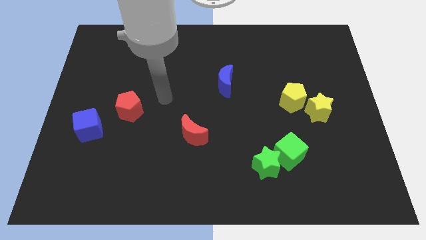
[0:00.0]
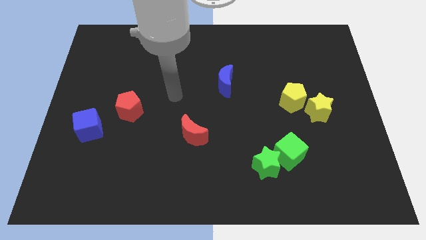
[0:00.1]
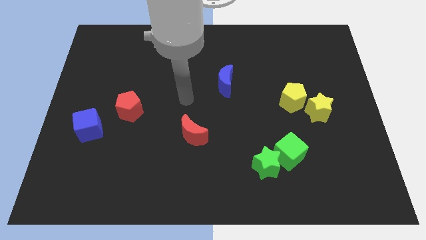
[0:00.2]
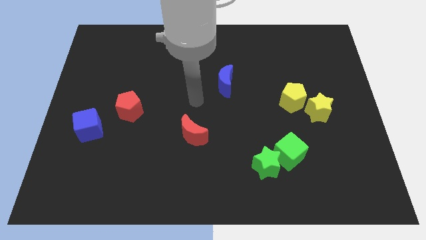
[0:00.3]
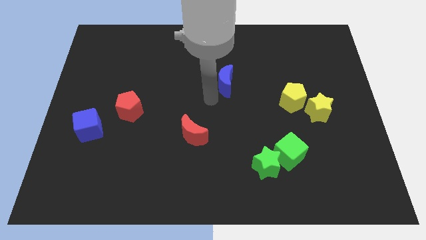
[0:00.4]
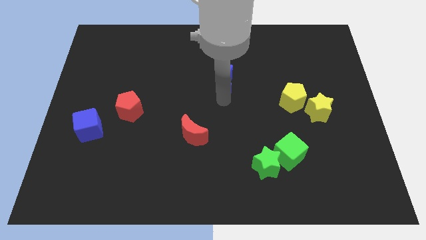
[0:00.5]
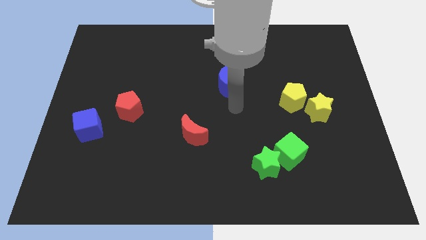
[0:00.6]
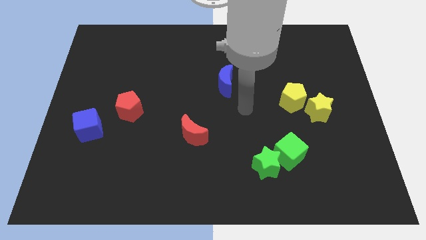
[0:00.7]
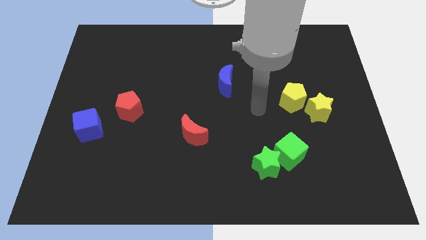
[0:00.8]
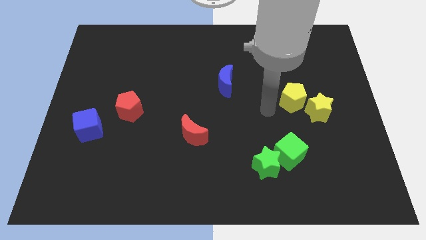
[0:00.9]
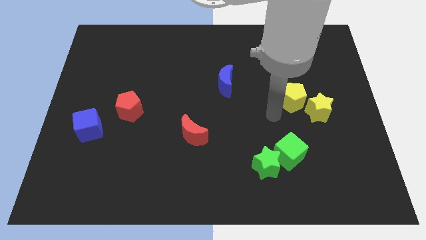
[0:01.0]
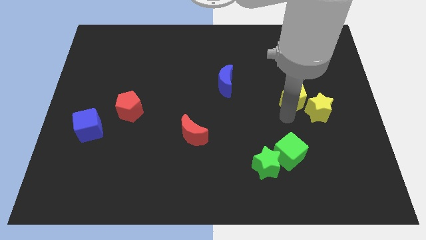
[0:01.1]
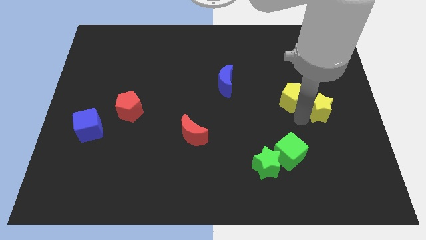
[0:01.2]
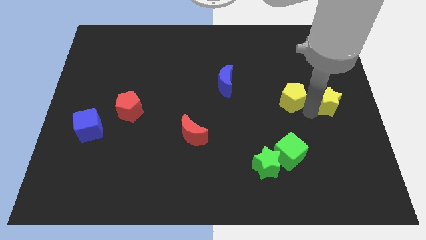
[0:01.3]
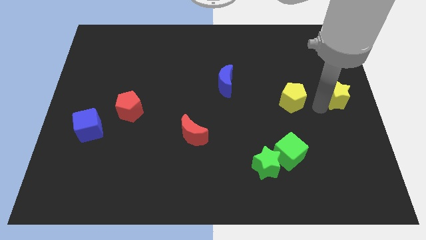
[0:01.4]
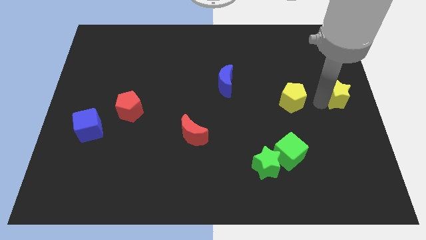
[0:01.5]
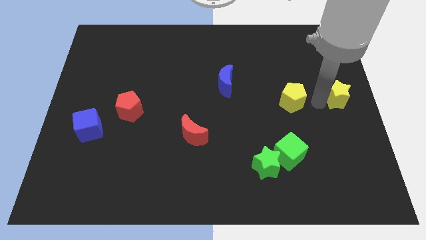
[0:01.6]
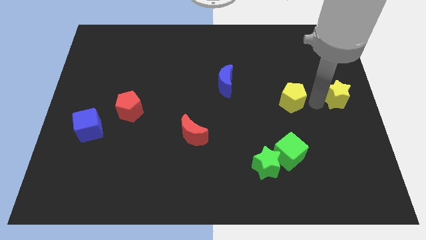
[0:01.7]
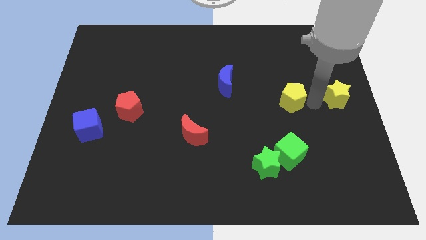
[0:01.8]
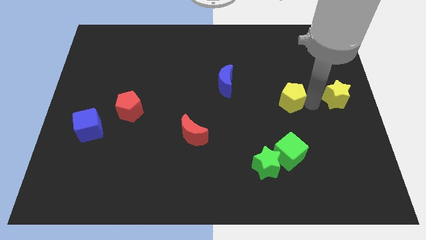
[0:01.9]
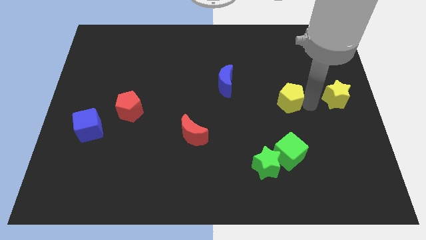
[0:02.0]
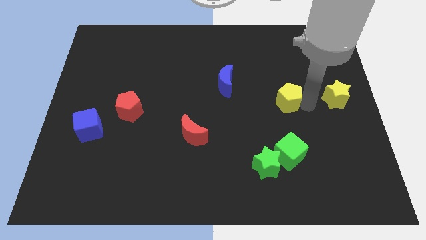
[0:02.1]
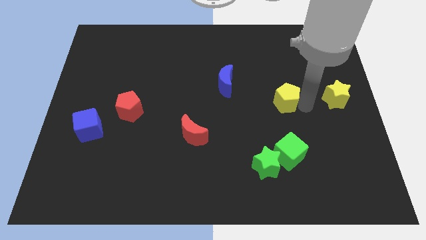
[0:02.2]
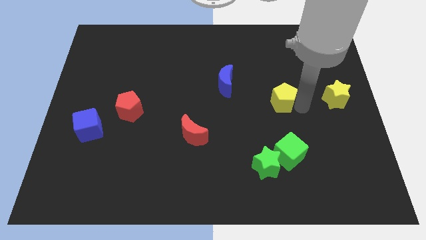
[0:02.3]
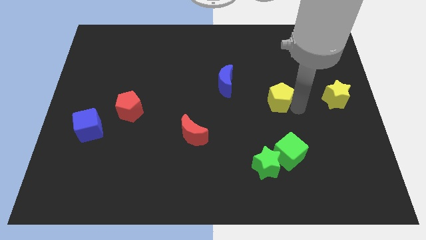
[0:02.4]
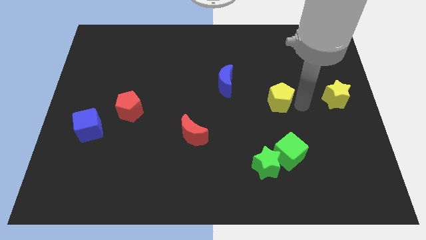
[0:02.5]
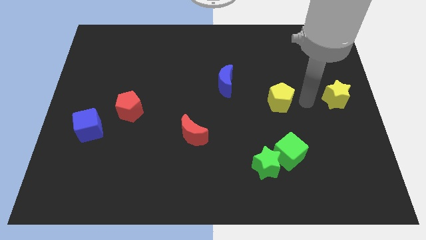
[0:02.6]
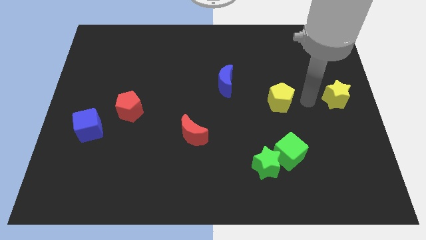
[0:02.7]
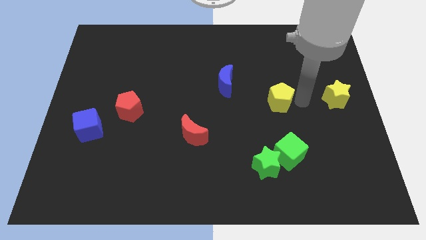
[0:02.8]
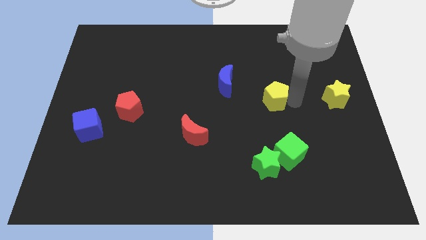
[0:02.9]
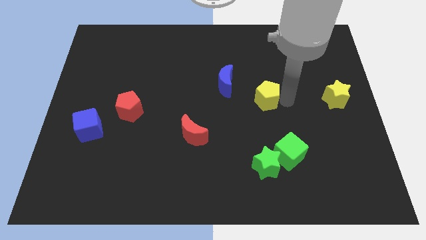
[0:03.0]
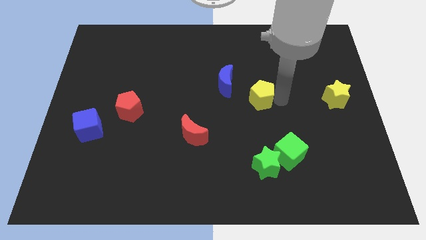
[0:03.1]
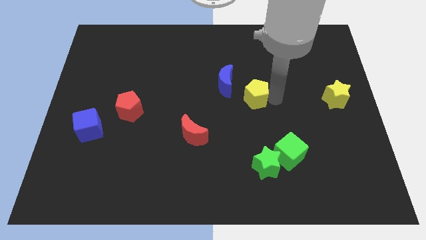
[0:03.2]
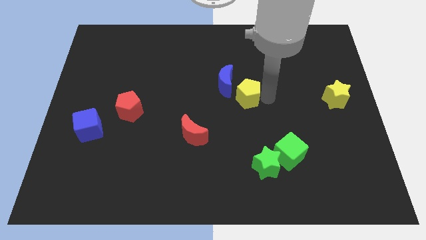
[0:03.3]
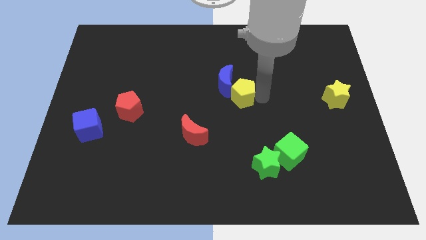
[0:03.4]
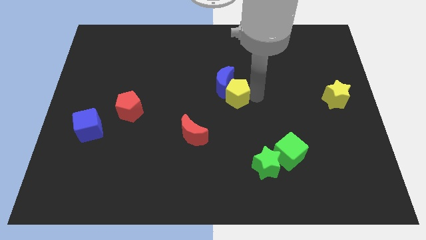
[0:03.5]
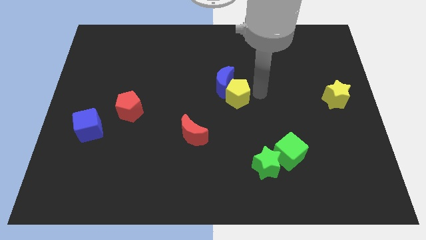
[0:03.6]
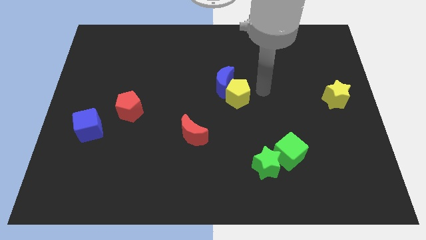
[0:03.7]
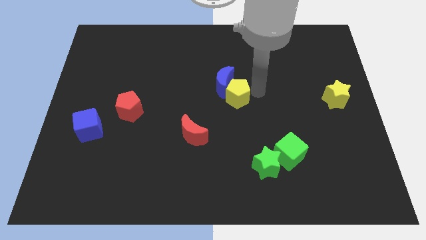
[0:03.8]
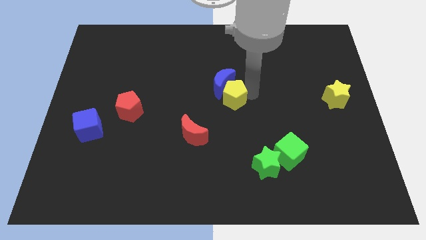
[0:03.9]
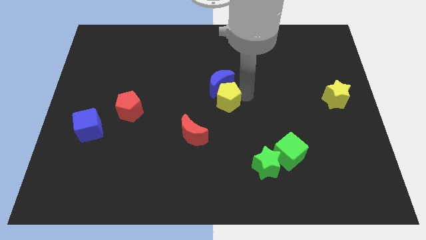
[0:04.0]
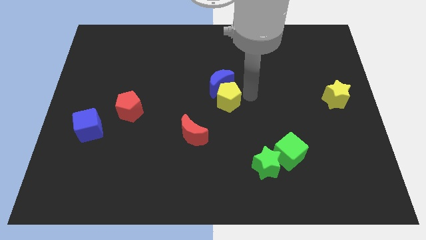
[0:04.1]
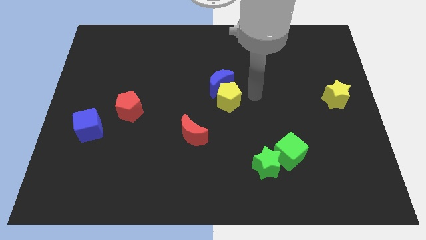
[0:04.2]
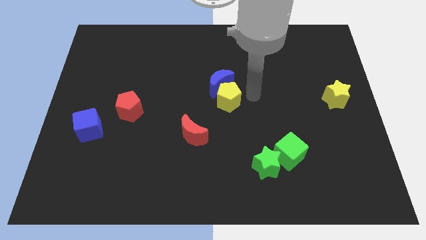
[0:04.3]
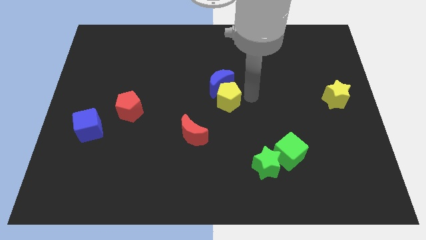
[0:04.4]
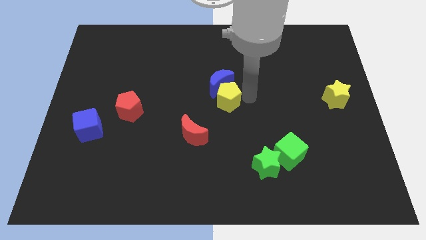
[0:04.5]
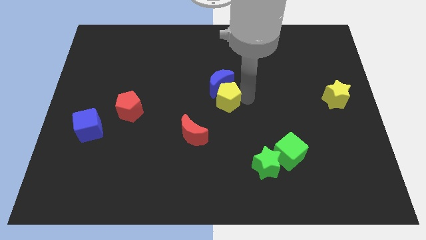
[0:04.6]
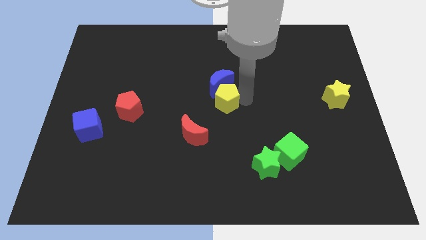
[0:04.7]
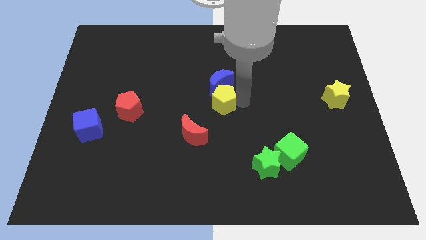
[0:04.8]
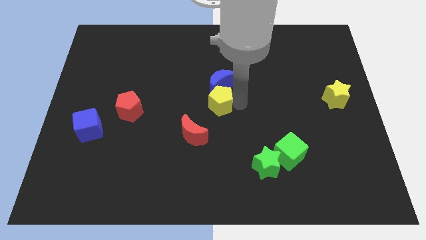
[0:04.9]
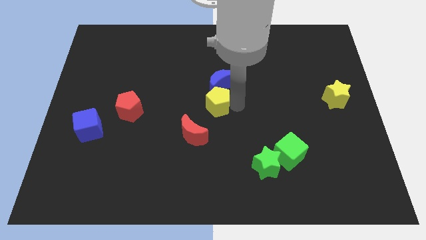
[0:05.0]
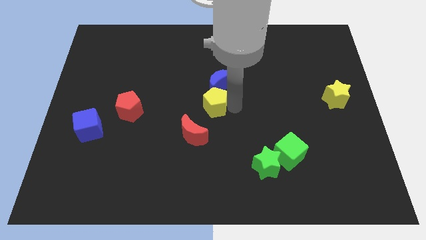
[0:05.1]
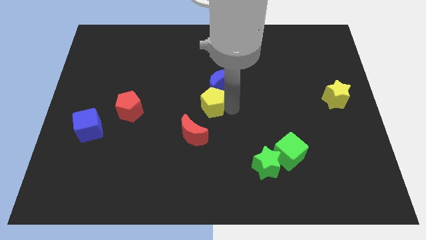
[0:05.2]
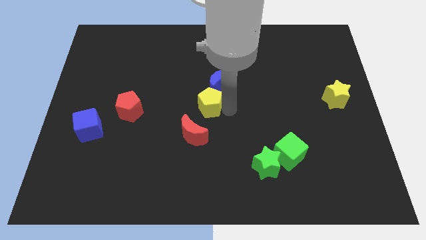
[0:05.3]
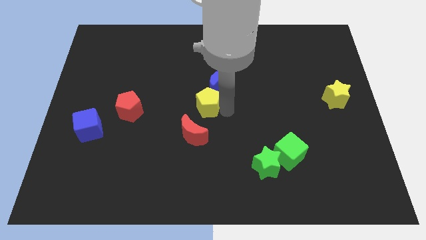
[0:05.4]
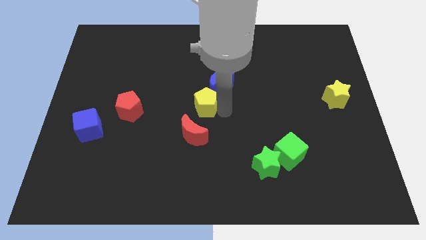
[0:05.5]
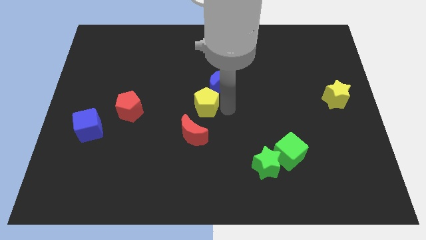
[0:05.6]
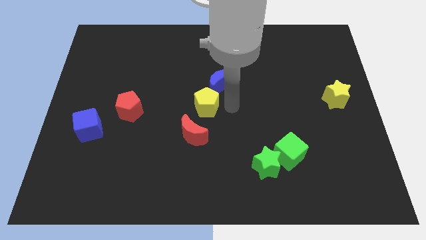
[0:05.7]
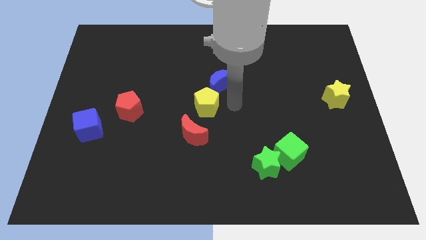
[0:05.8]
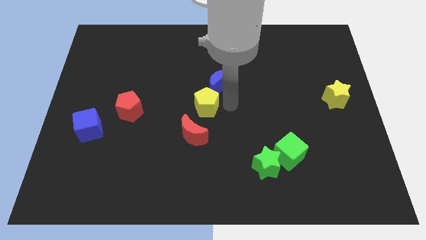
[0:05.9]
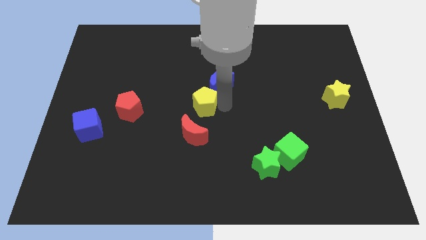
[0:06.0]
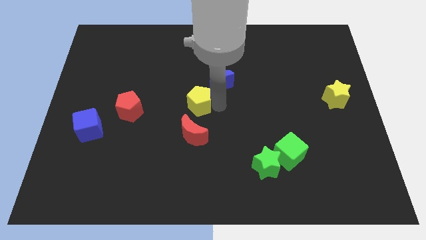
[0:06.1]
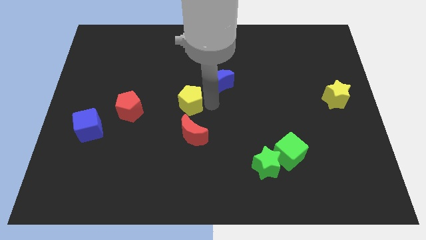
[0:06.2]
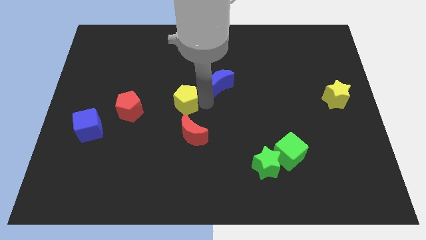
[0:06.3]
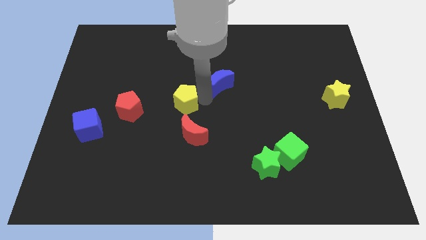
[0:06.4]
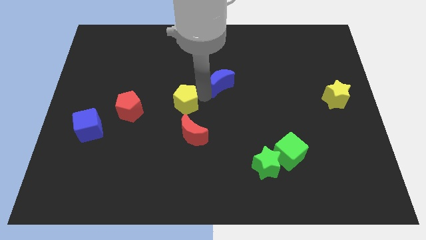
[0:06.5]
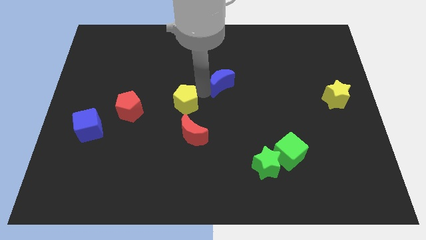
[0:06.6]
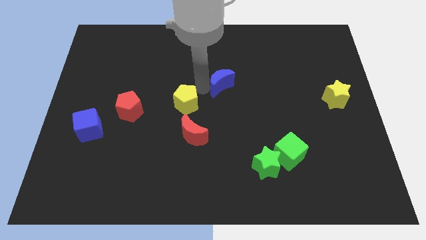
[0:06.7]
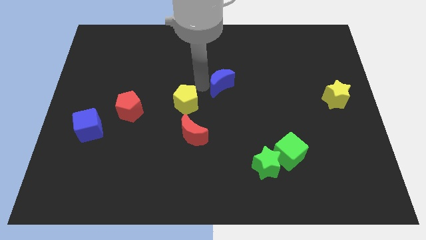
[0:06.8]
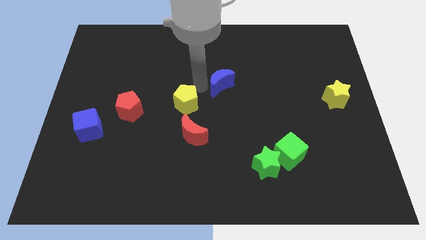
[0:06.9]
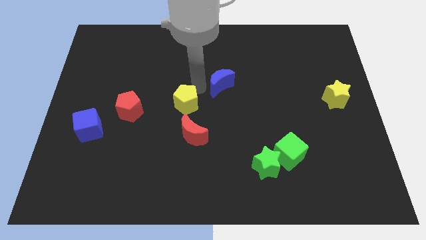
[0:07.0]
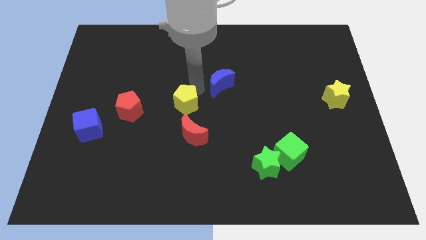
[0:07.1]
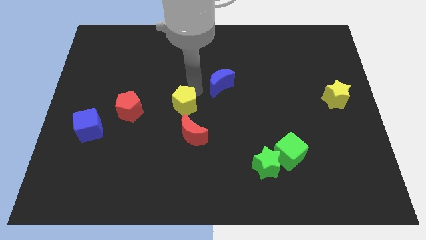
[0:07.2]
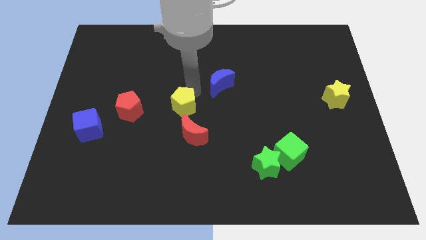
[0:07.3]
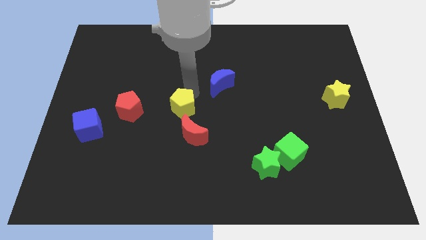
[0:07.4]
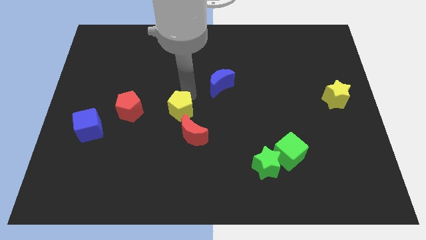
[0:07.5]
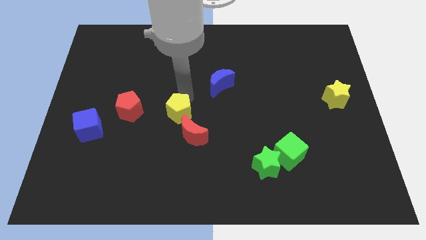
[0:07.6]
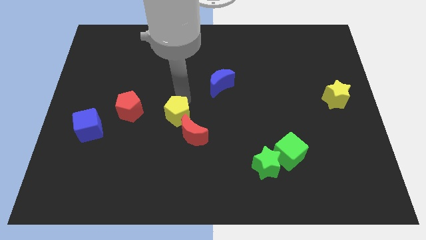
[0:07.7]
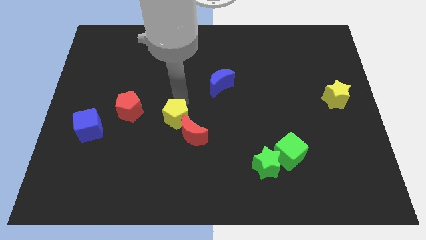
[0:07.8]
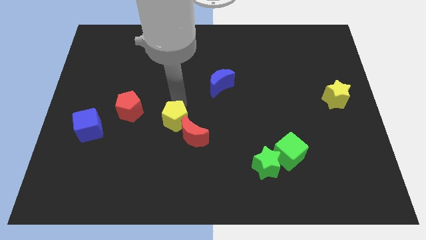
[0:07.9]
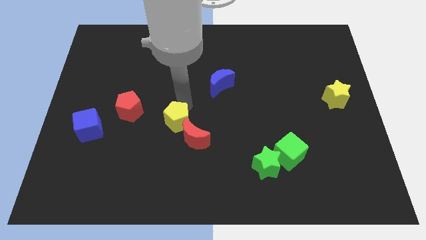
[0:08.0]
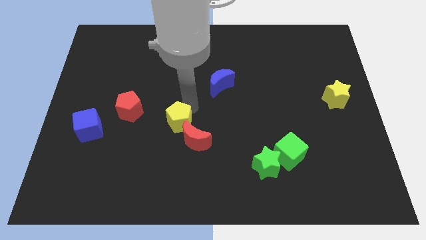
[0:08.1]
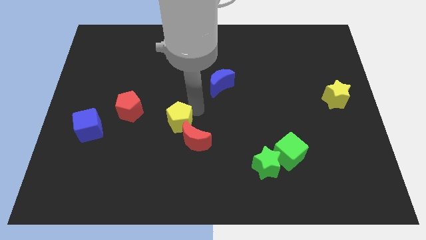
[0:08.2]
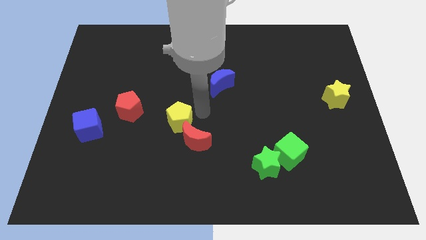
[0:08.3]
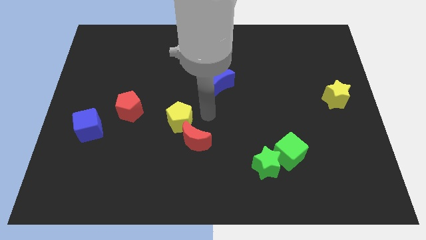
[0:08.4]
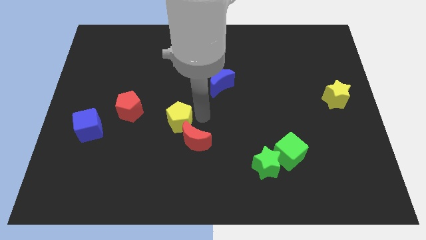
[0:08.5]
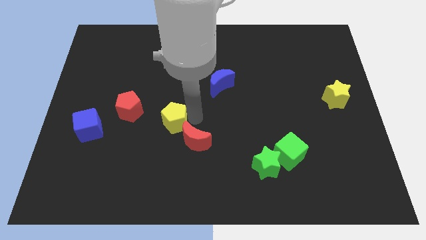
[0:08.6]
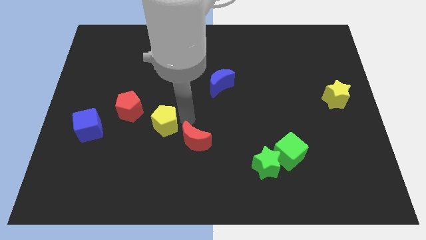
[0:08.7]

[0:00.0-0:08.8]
push the yellow pentagon to the bottom right side of the red pentagon
